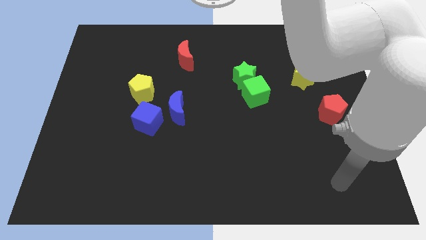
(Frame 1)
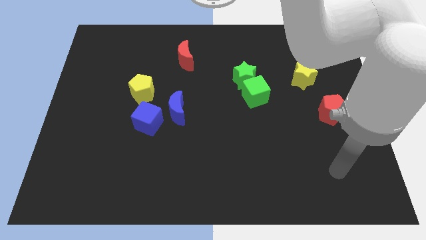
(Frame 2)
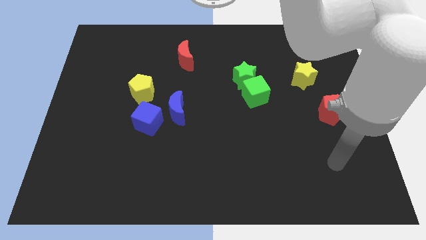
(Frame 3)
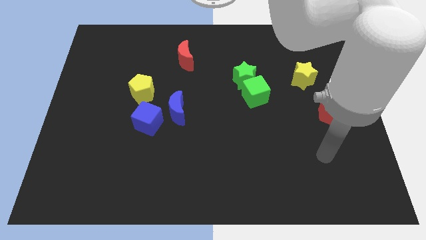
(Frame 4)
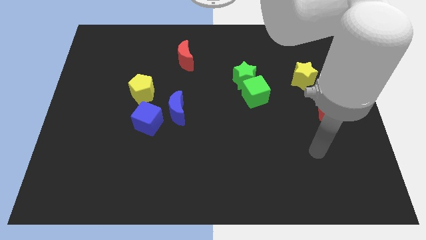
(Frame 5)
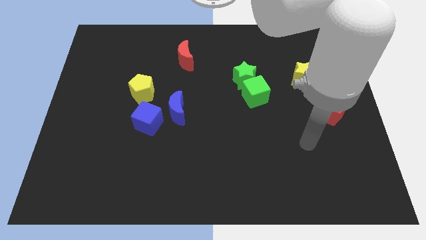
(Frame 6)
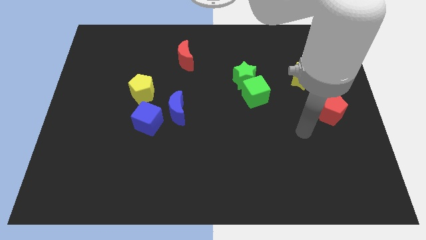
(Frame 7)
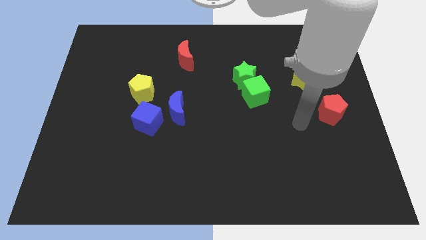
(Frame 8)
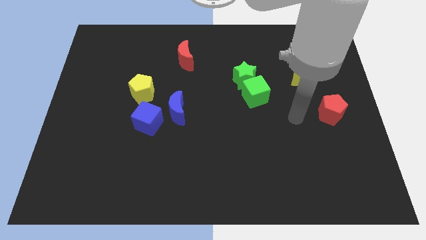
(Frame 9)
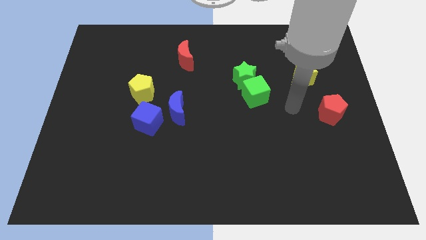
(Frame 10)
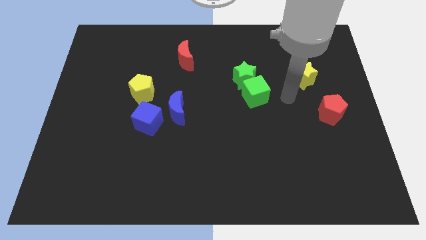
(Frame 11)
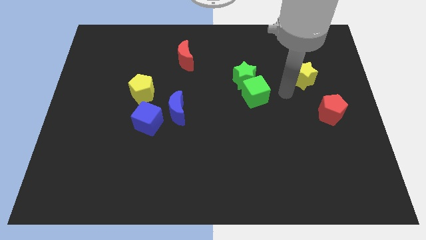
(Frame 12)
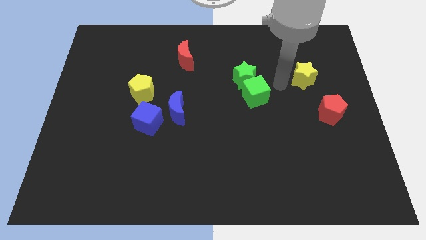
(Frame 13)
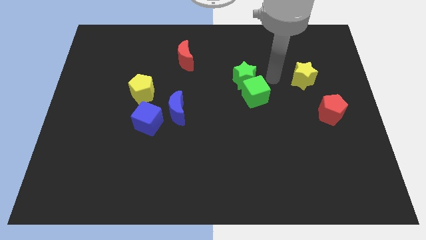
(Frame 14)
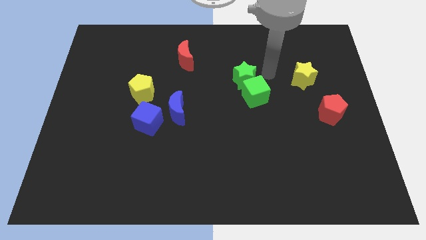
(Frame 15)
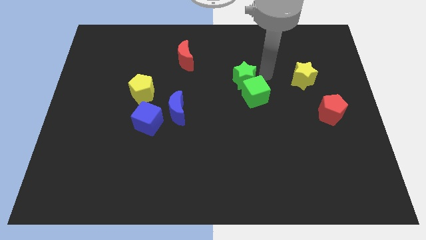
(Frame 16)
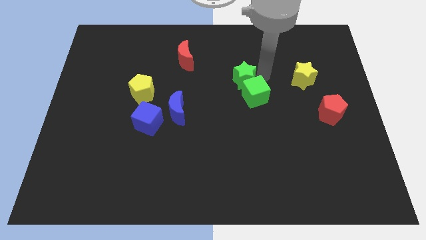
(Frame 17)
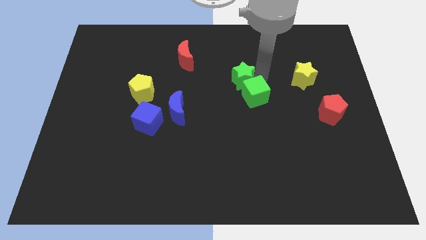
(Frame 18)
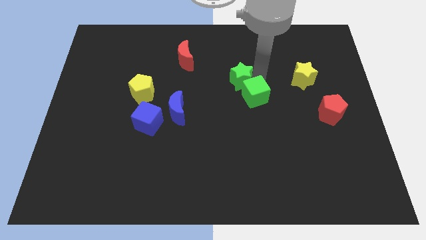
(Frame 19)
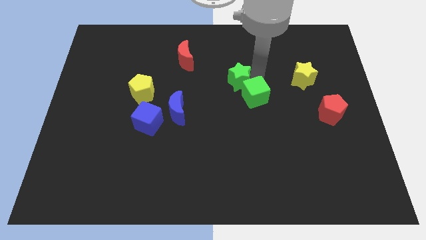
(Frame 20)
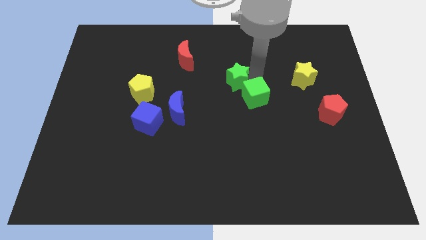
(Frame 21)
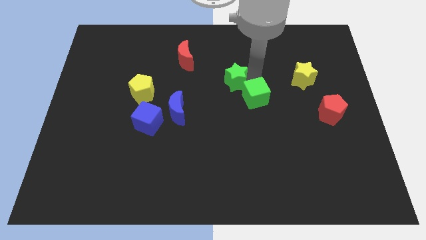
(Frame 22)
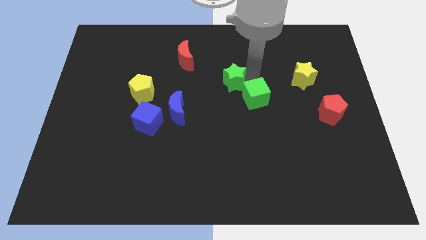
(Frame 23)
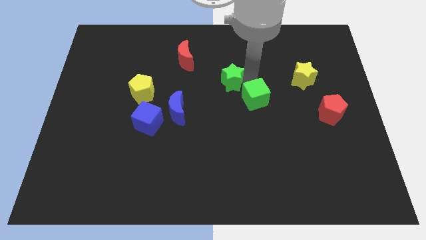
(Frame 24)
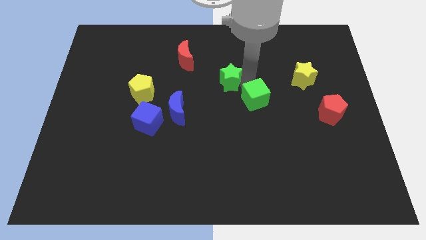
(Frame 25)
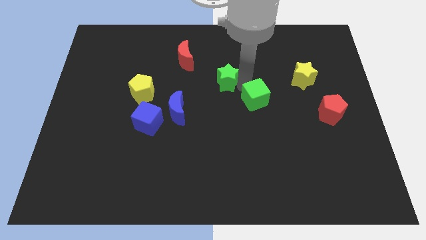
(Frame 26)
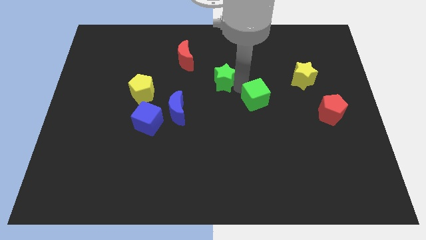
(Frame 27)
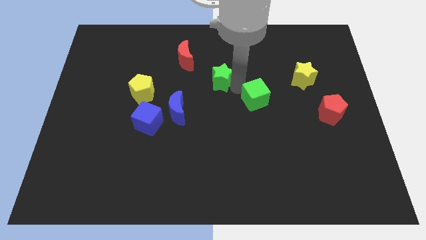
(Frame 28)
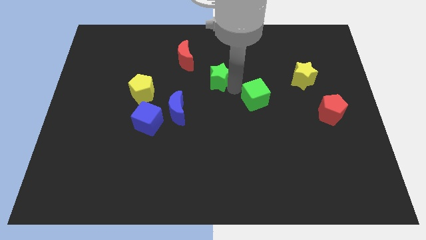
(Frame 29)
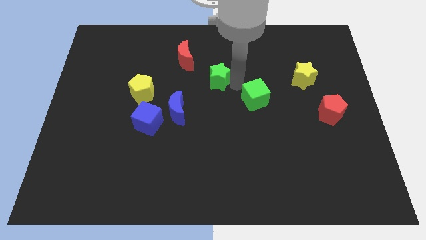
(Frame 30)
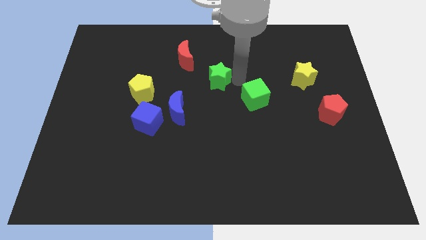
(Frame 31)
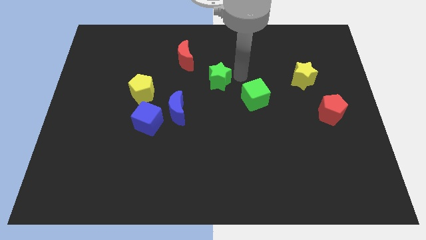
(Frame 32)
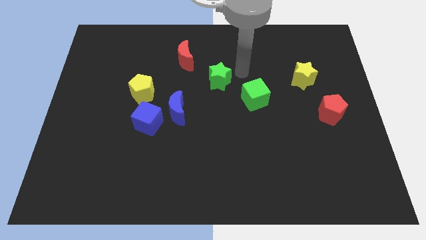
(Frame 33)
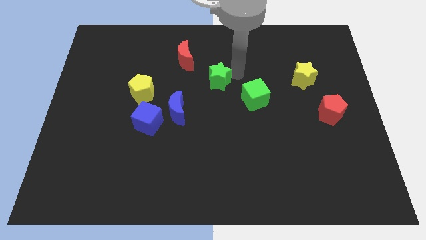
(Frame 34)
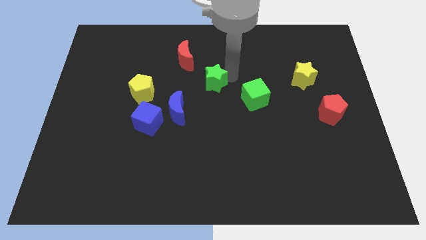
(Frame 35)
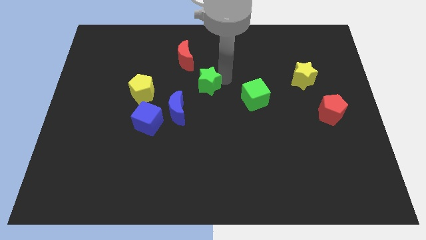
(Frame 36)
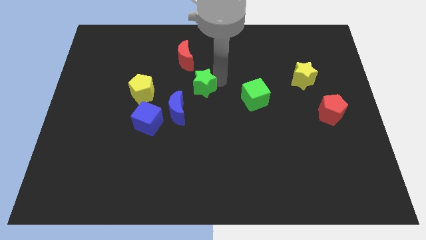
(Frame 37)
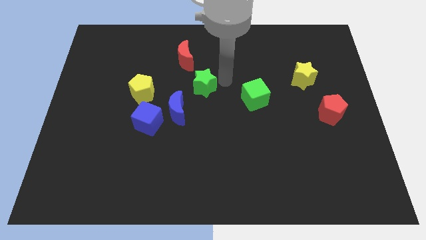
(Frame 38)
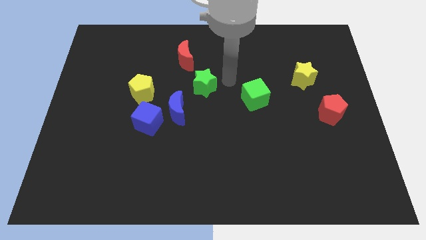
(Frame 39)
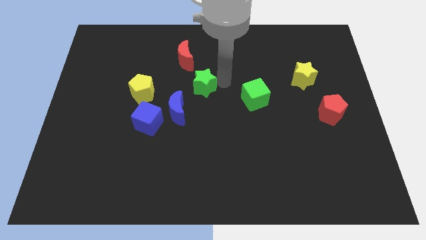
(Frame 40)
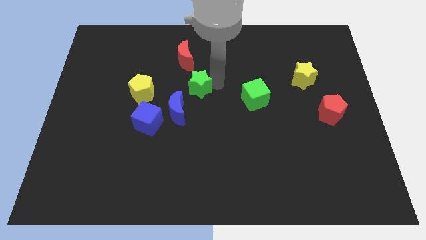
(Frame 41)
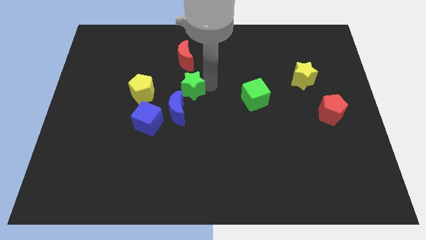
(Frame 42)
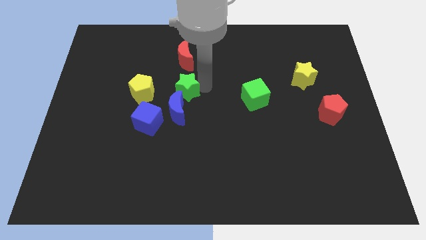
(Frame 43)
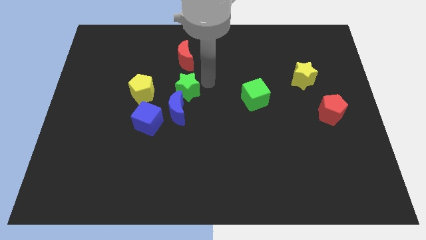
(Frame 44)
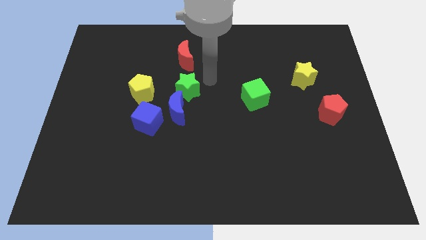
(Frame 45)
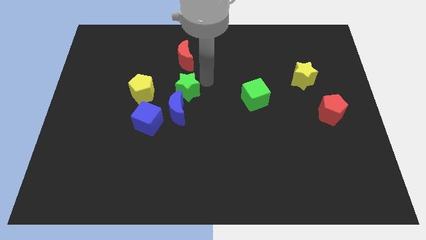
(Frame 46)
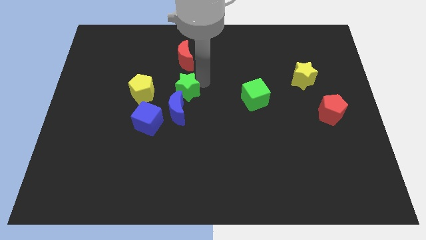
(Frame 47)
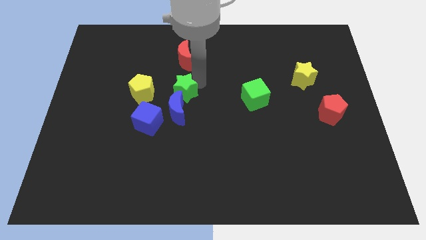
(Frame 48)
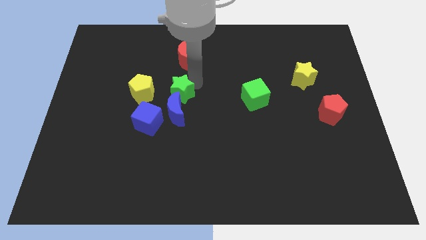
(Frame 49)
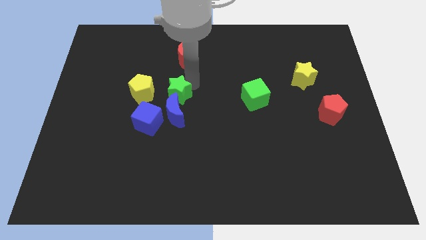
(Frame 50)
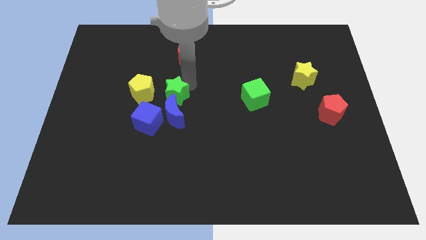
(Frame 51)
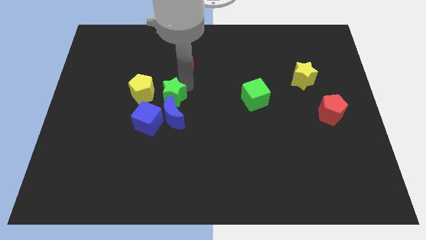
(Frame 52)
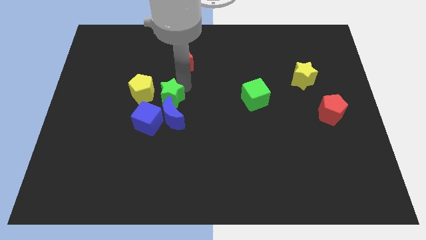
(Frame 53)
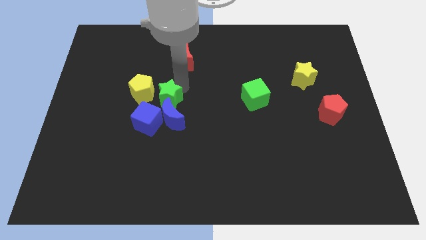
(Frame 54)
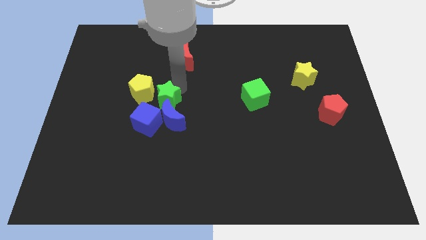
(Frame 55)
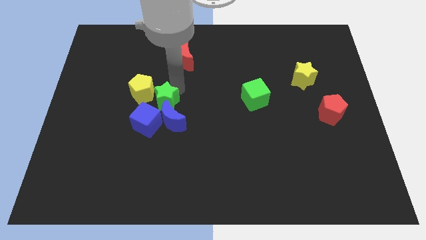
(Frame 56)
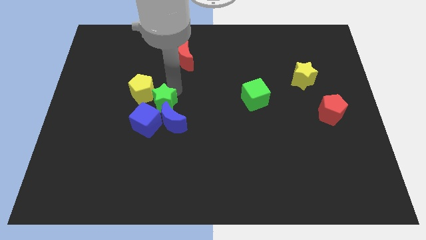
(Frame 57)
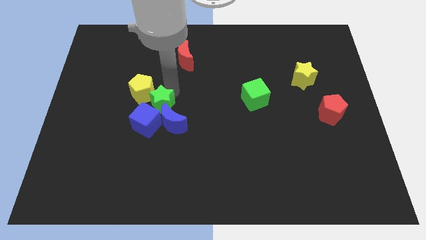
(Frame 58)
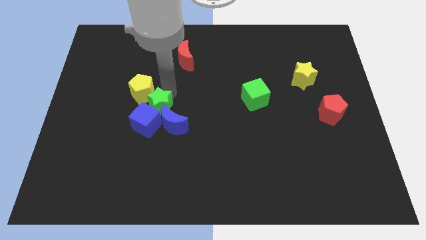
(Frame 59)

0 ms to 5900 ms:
slide the green star close to the blue cube

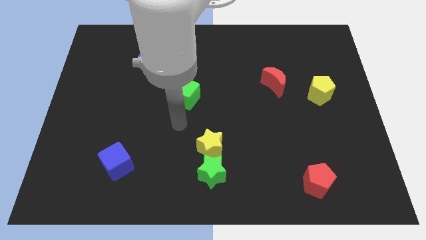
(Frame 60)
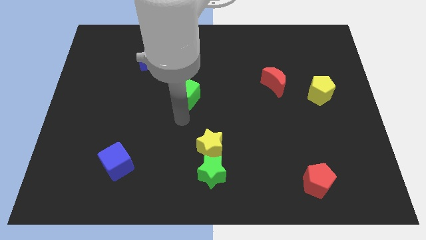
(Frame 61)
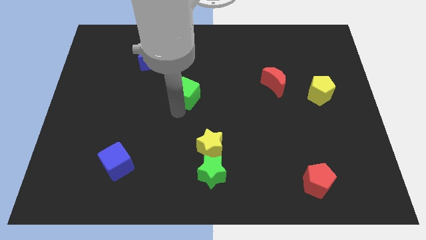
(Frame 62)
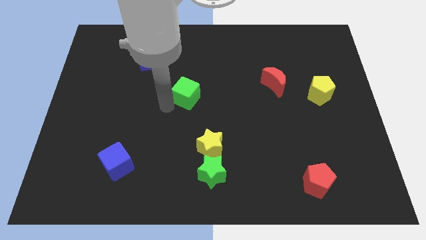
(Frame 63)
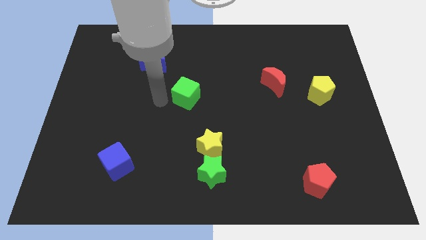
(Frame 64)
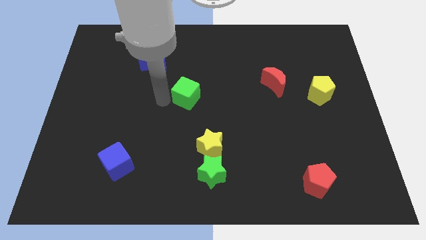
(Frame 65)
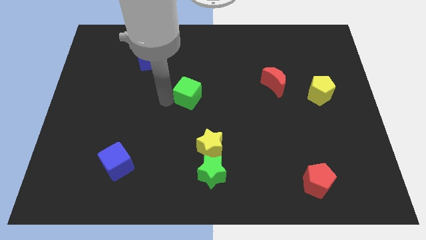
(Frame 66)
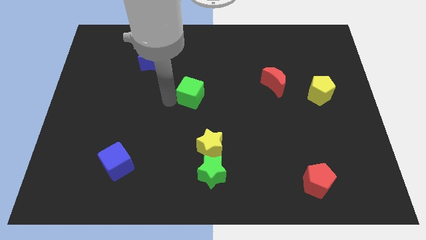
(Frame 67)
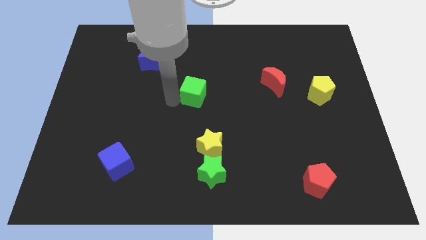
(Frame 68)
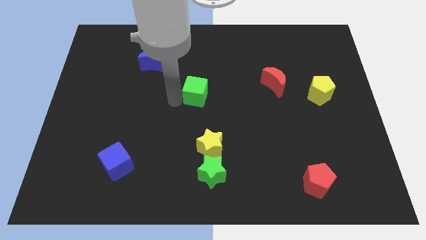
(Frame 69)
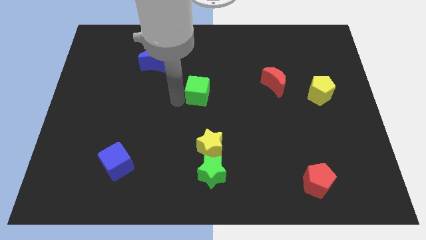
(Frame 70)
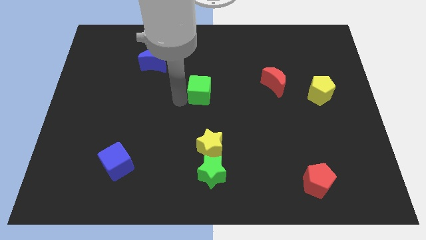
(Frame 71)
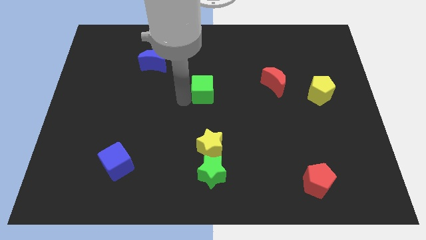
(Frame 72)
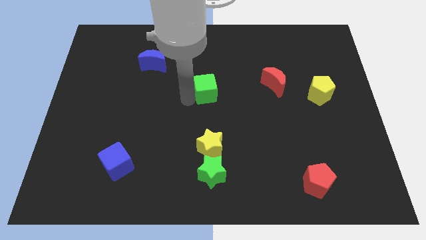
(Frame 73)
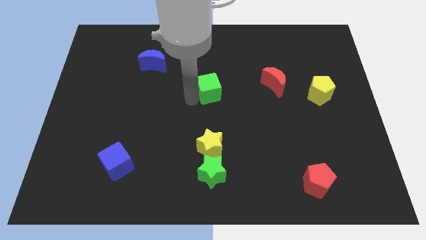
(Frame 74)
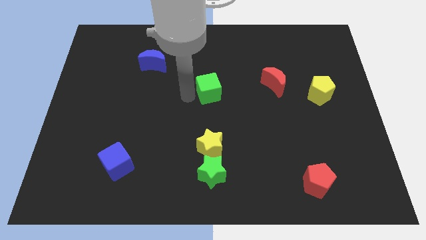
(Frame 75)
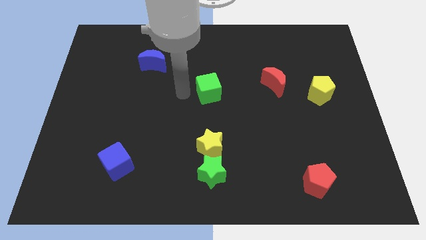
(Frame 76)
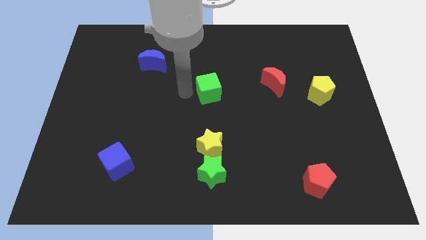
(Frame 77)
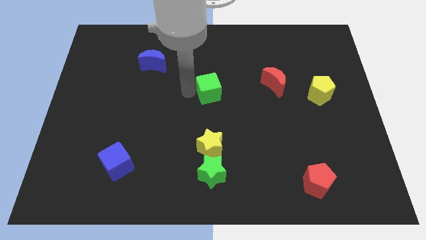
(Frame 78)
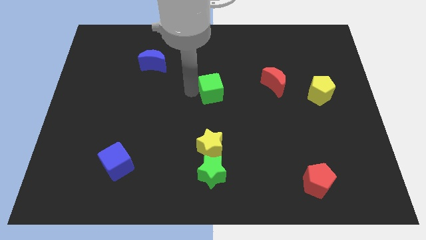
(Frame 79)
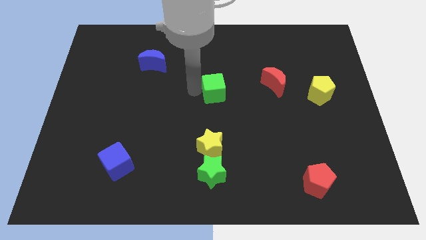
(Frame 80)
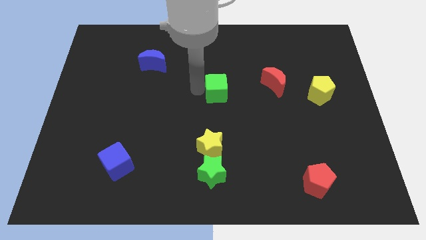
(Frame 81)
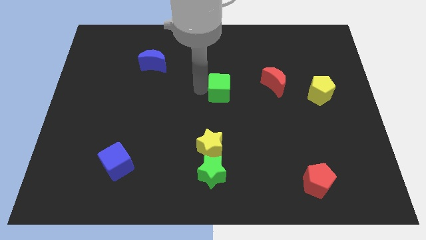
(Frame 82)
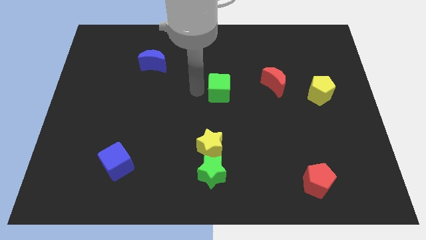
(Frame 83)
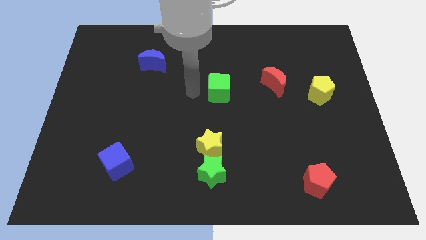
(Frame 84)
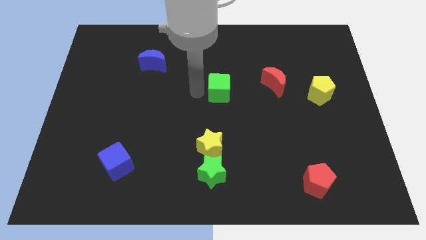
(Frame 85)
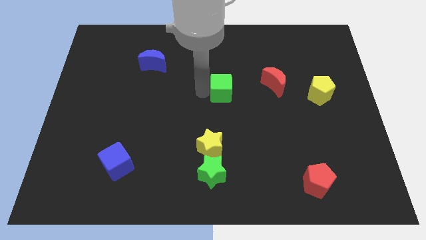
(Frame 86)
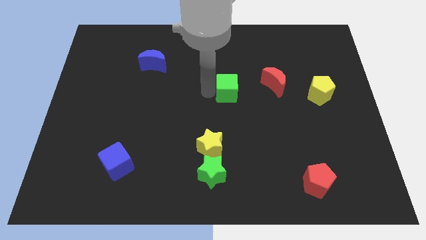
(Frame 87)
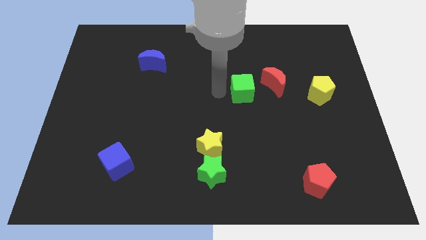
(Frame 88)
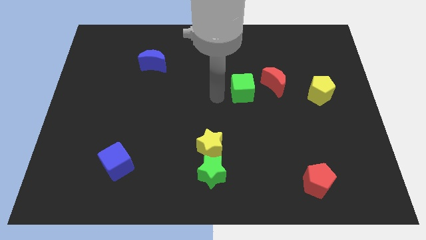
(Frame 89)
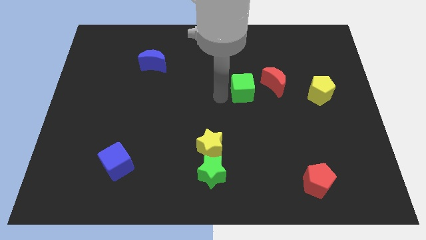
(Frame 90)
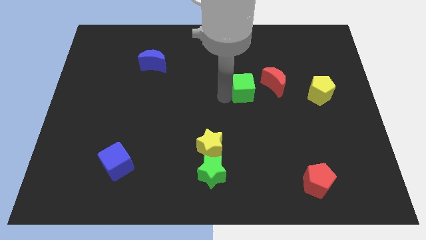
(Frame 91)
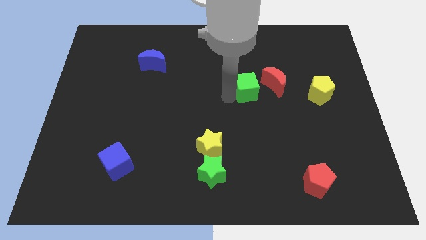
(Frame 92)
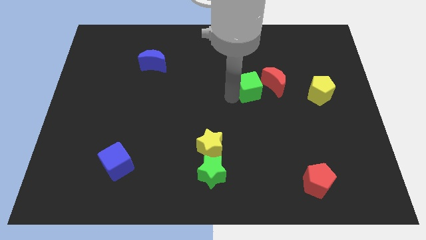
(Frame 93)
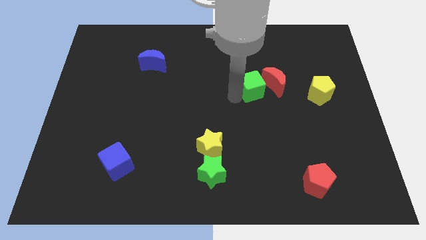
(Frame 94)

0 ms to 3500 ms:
put the green cube to the red moon
